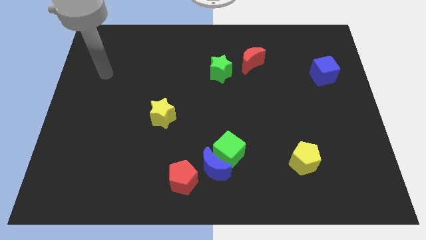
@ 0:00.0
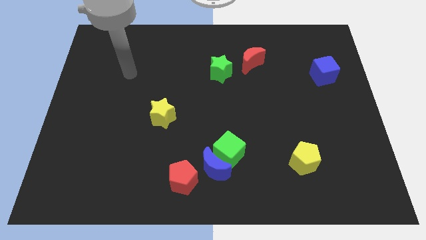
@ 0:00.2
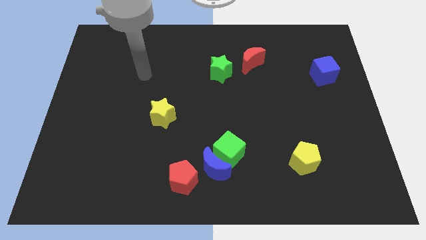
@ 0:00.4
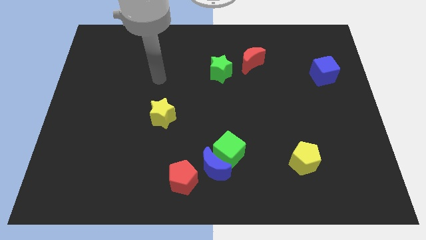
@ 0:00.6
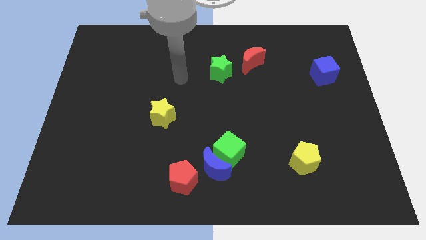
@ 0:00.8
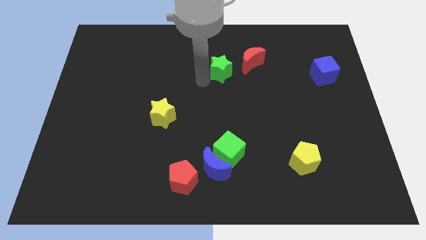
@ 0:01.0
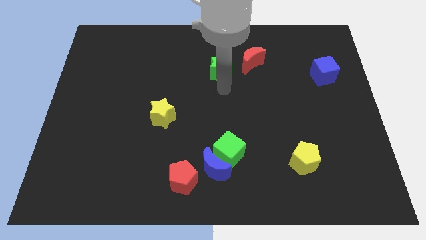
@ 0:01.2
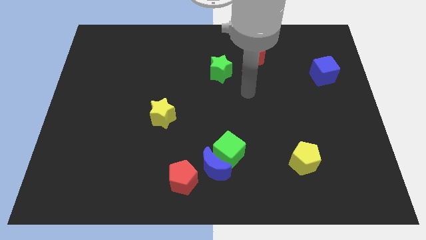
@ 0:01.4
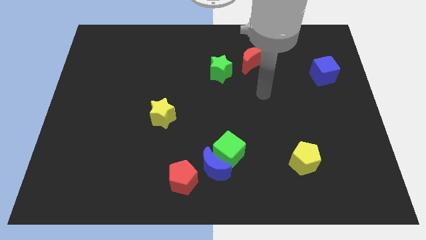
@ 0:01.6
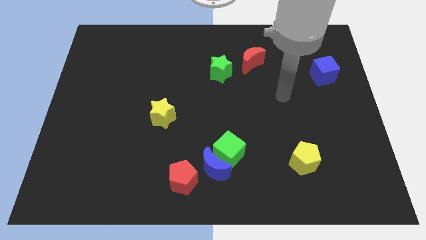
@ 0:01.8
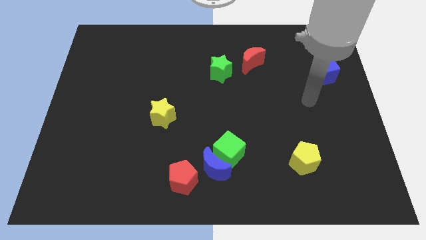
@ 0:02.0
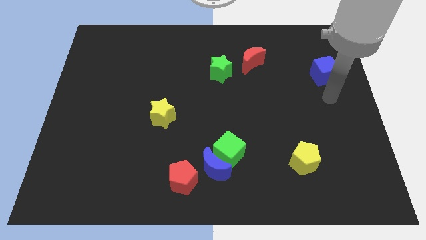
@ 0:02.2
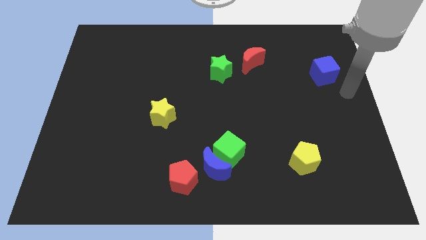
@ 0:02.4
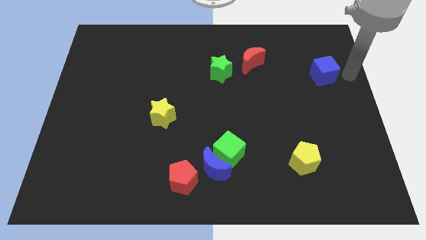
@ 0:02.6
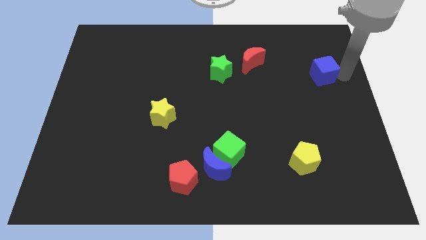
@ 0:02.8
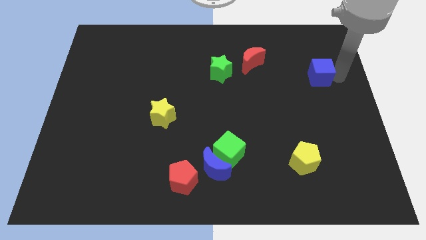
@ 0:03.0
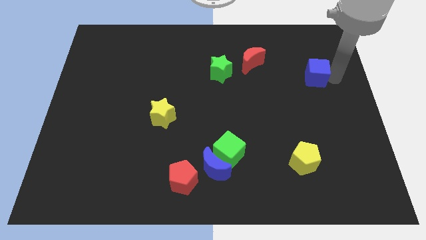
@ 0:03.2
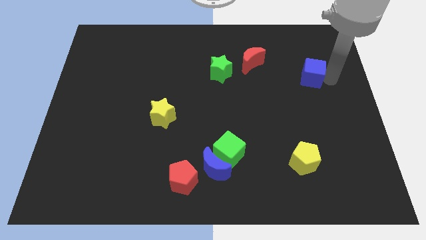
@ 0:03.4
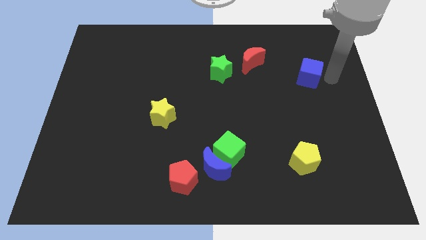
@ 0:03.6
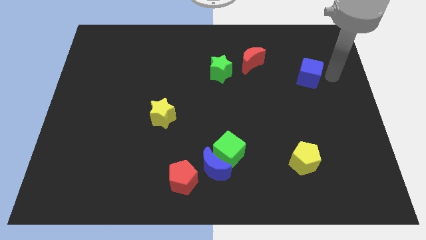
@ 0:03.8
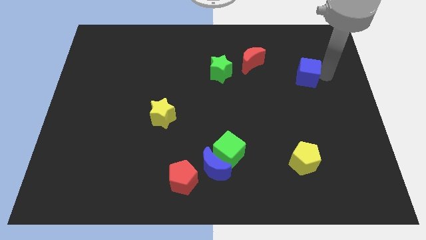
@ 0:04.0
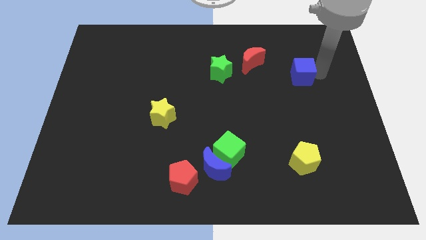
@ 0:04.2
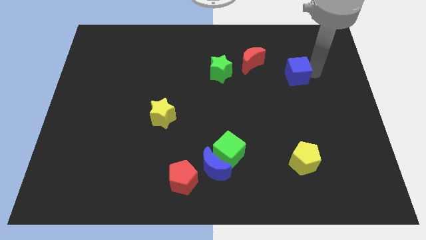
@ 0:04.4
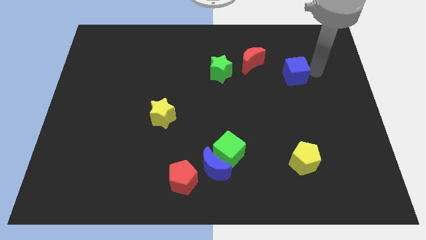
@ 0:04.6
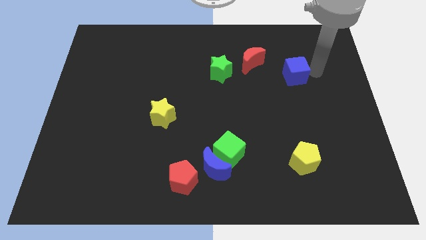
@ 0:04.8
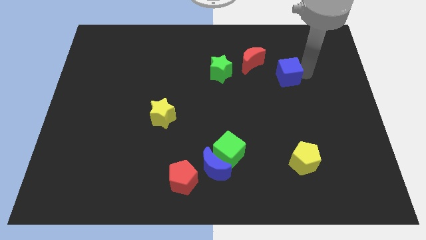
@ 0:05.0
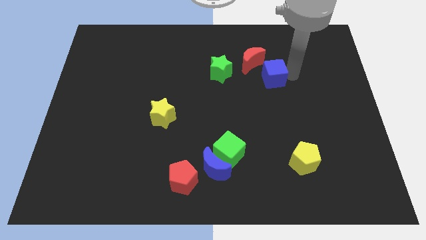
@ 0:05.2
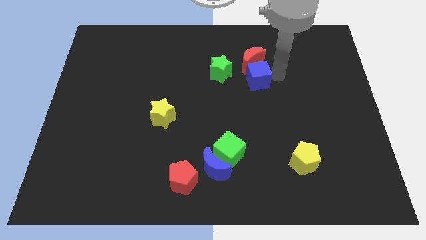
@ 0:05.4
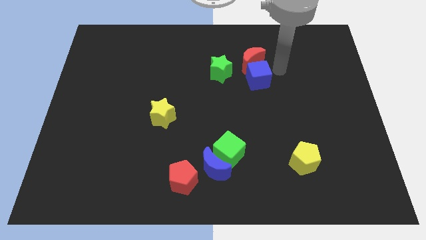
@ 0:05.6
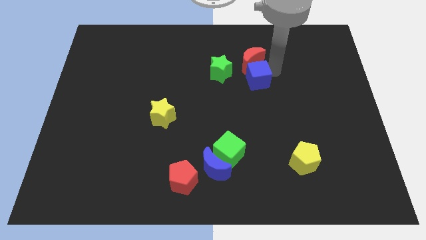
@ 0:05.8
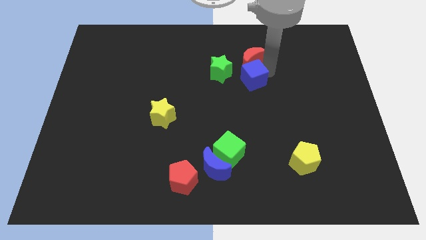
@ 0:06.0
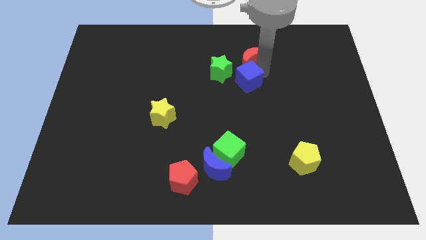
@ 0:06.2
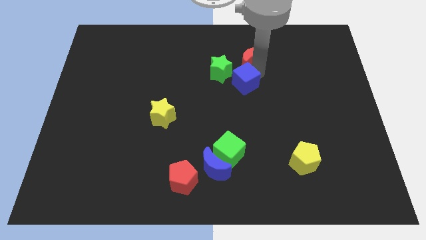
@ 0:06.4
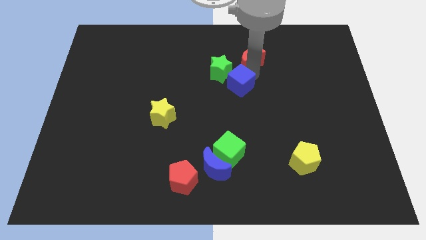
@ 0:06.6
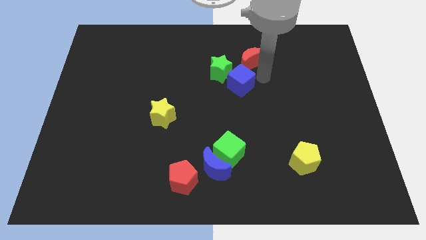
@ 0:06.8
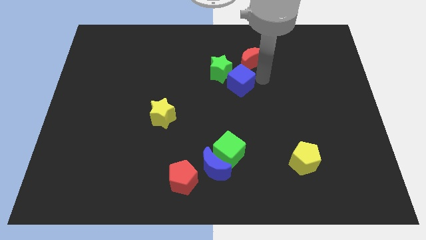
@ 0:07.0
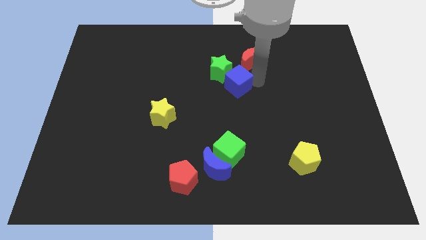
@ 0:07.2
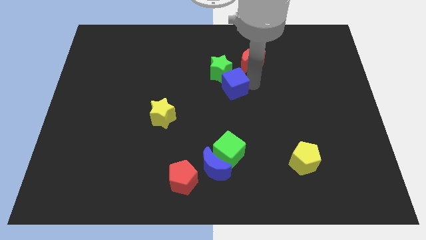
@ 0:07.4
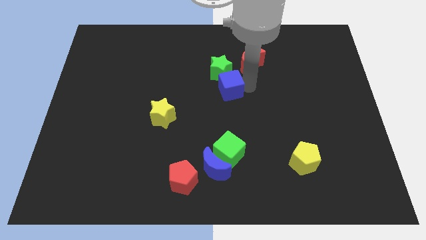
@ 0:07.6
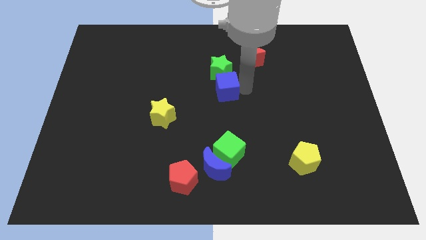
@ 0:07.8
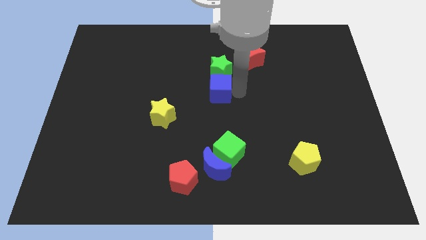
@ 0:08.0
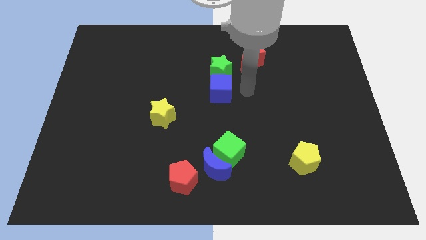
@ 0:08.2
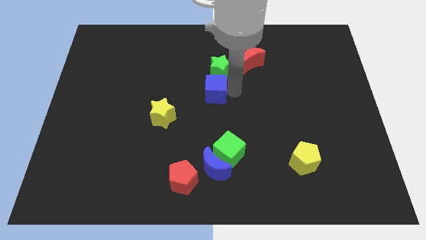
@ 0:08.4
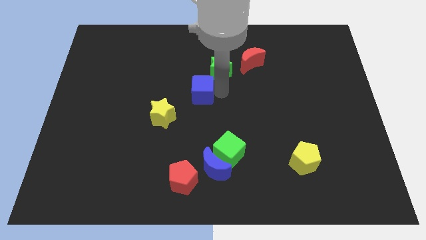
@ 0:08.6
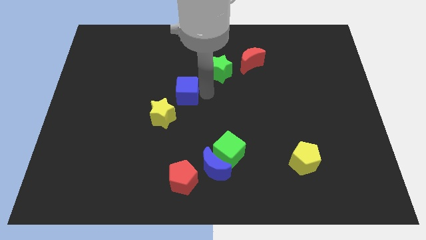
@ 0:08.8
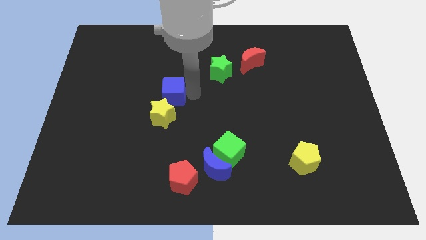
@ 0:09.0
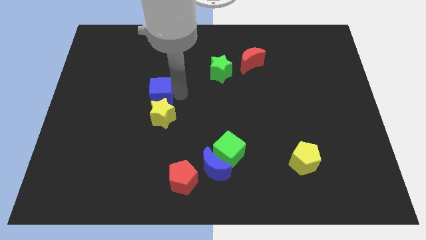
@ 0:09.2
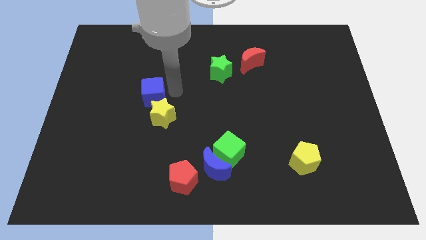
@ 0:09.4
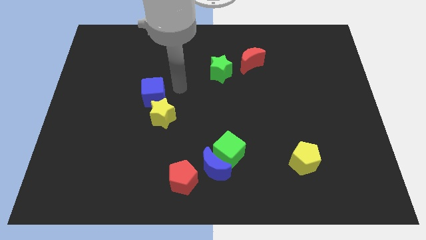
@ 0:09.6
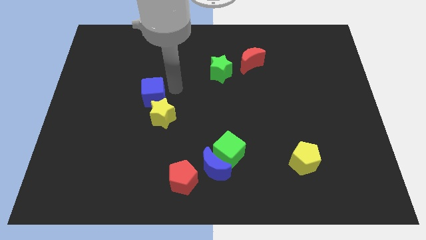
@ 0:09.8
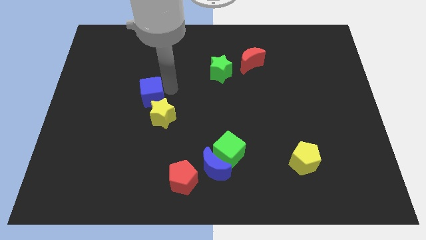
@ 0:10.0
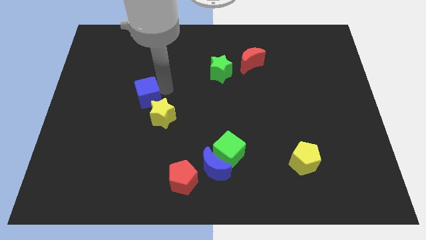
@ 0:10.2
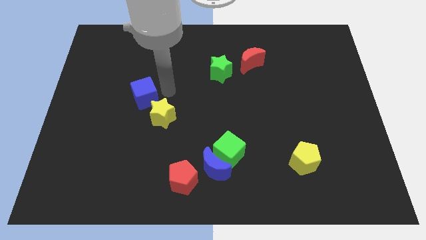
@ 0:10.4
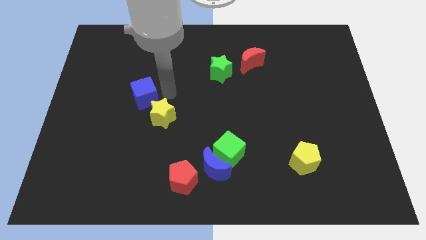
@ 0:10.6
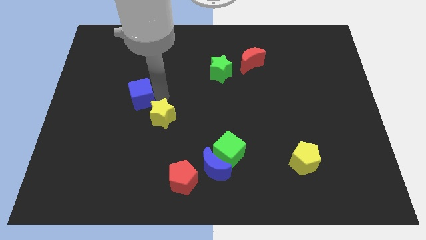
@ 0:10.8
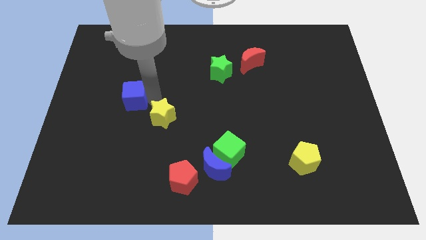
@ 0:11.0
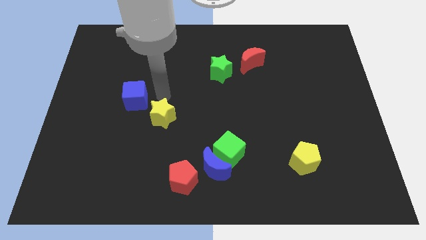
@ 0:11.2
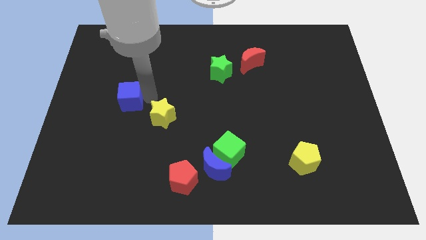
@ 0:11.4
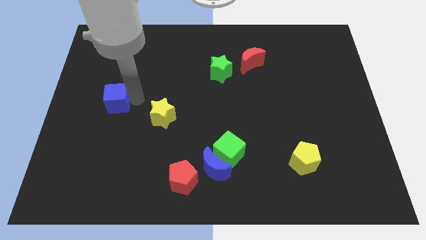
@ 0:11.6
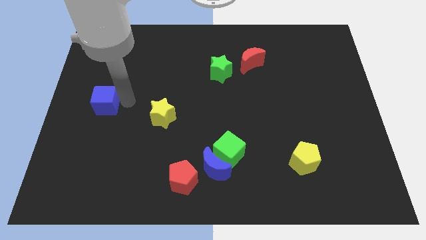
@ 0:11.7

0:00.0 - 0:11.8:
slide the blue cube to the left side of the board

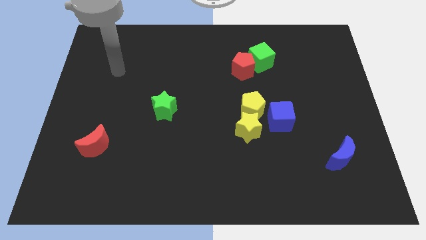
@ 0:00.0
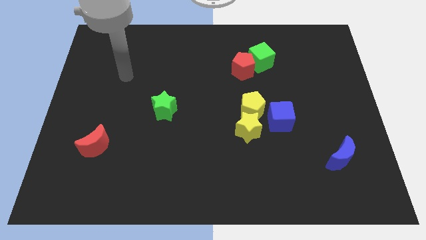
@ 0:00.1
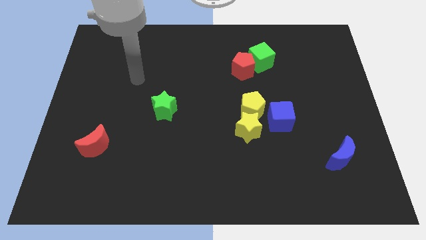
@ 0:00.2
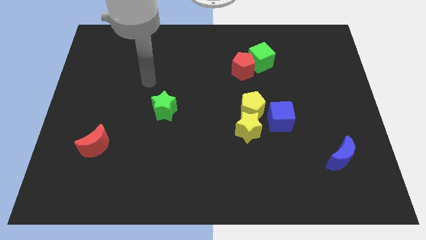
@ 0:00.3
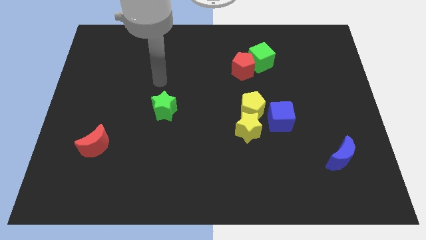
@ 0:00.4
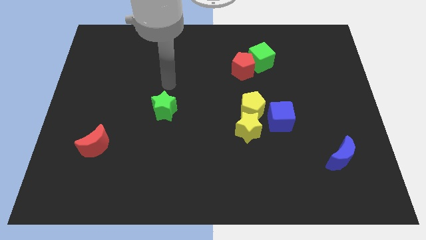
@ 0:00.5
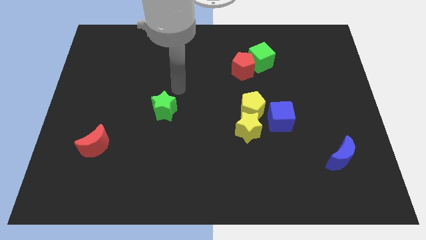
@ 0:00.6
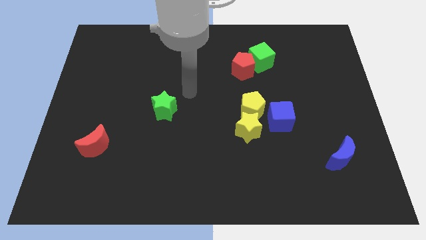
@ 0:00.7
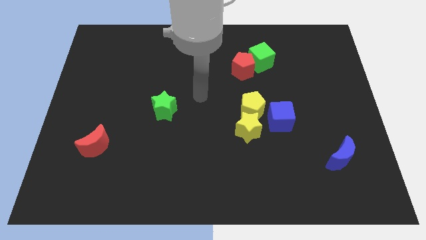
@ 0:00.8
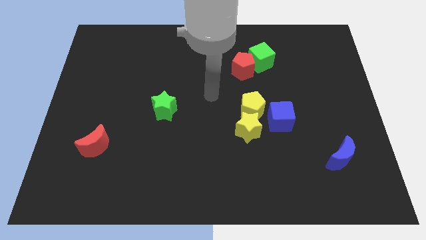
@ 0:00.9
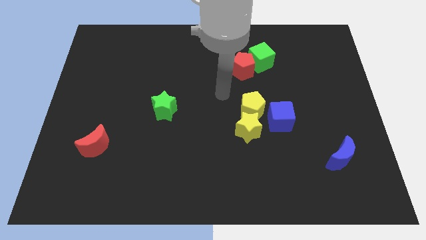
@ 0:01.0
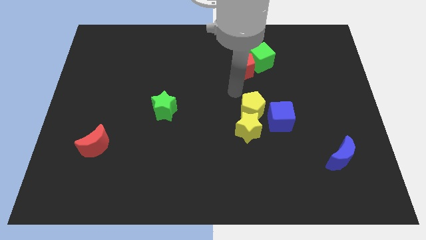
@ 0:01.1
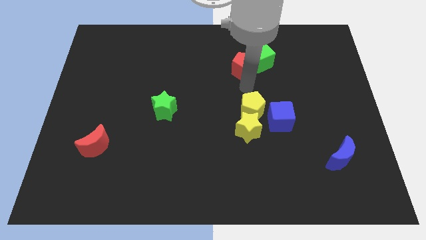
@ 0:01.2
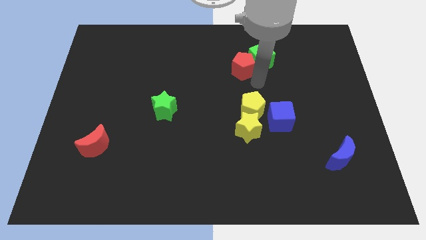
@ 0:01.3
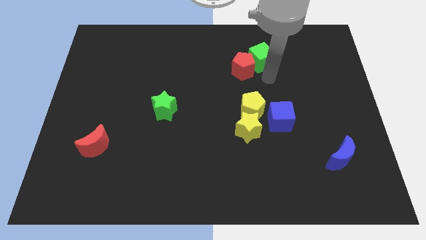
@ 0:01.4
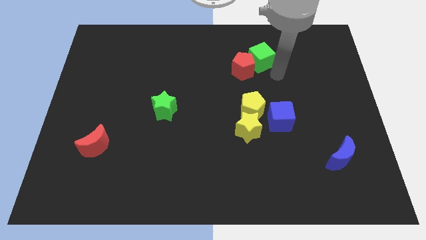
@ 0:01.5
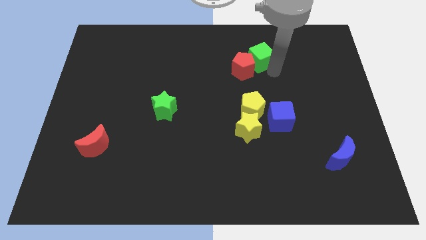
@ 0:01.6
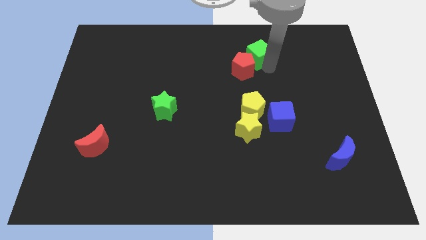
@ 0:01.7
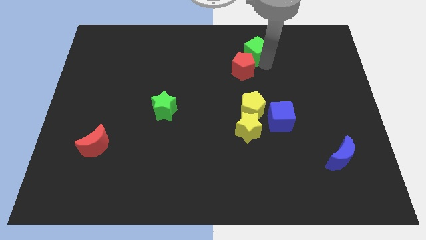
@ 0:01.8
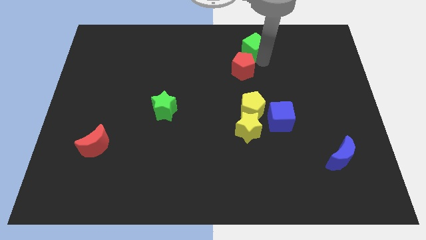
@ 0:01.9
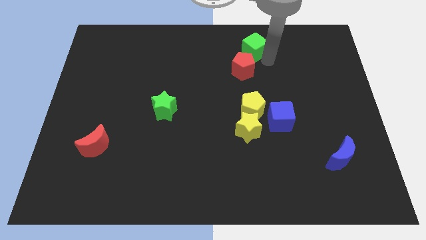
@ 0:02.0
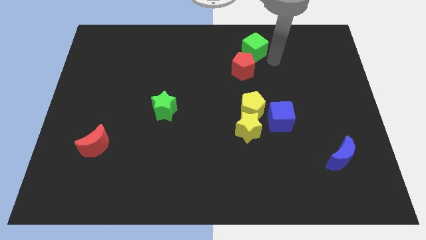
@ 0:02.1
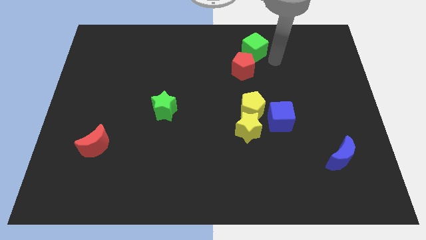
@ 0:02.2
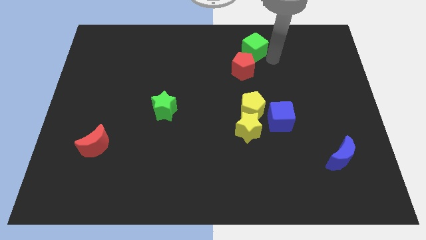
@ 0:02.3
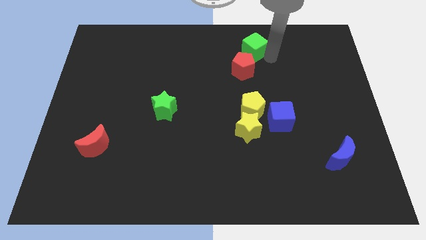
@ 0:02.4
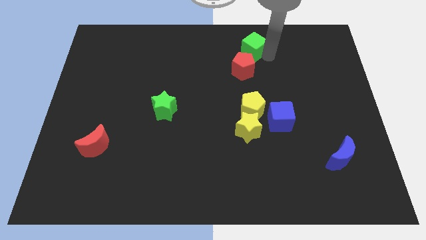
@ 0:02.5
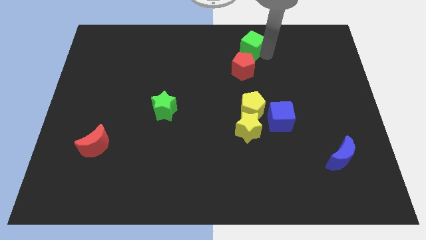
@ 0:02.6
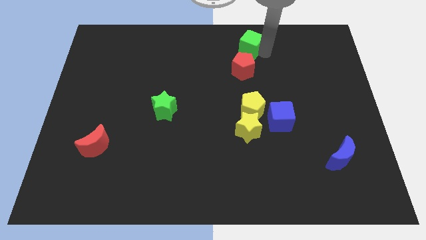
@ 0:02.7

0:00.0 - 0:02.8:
push the green cube to the top side
